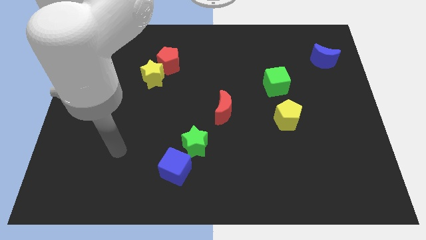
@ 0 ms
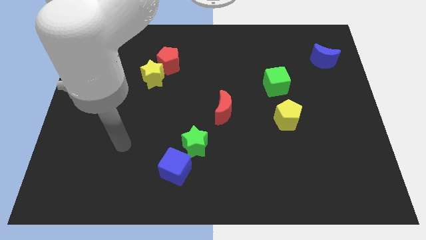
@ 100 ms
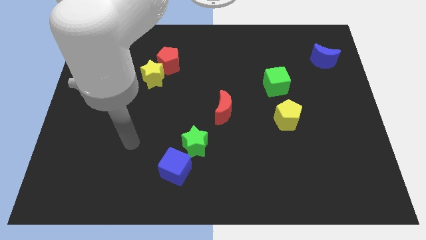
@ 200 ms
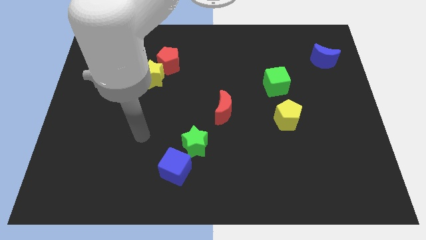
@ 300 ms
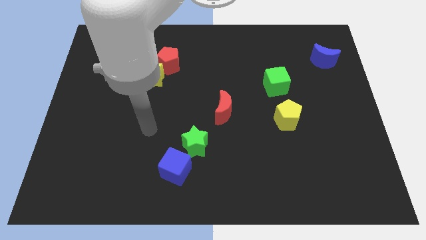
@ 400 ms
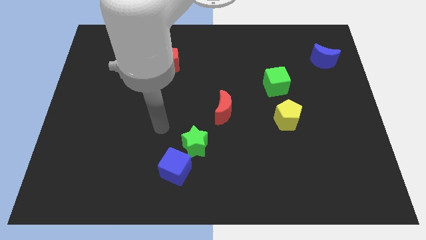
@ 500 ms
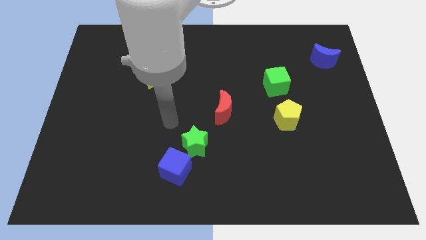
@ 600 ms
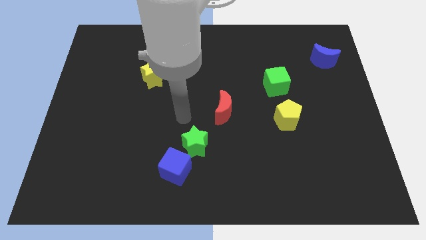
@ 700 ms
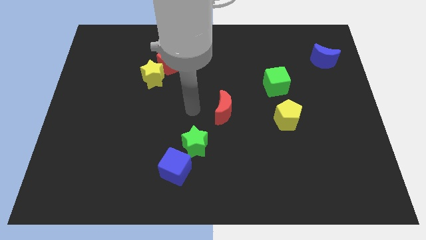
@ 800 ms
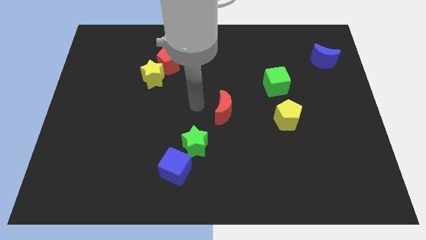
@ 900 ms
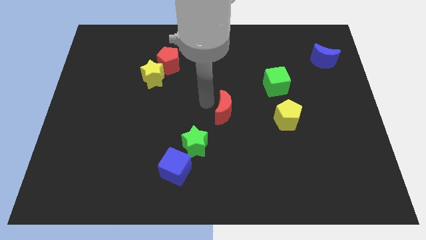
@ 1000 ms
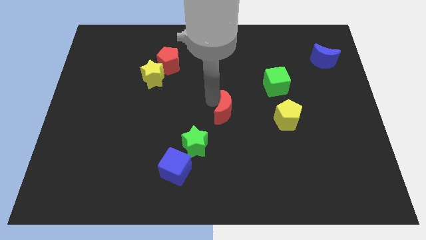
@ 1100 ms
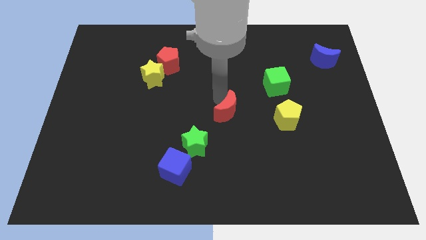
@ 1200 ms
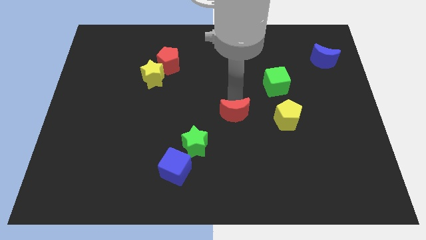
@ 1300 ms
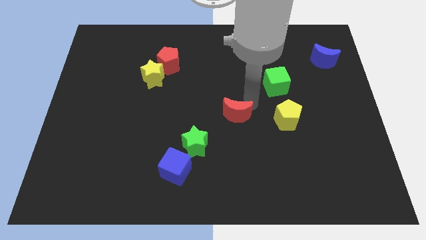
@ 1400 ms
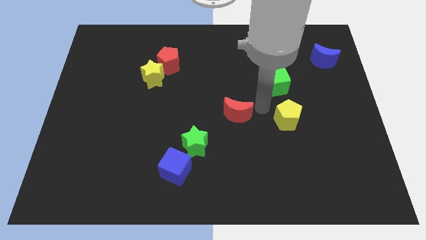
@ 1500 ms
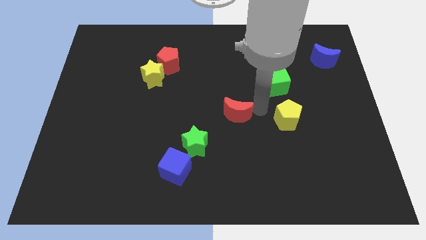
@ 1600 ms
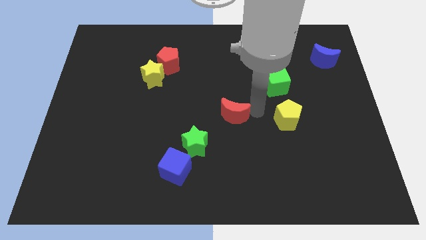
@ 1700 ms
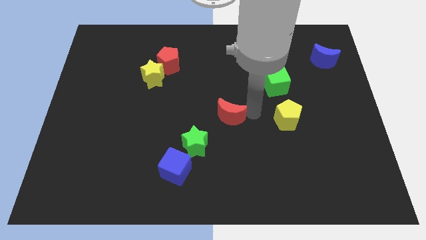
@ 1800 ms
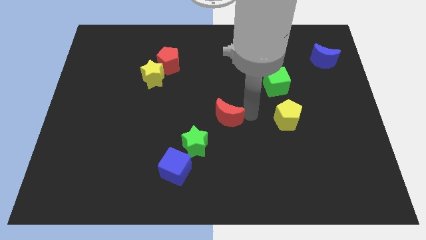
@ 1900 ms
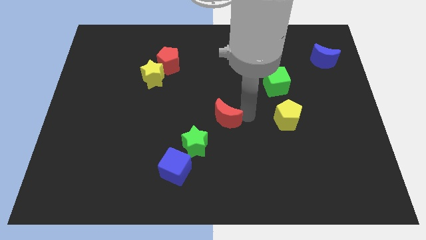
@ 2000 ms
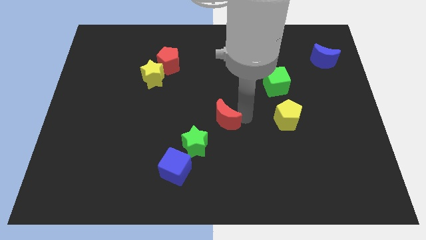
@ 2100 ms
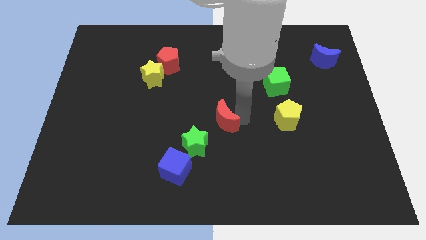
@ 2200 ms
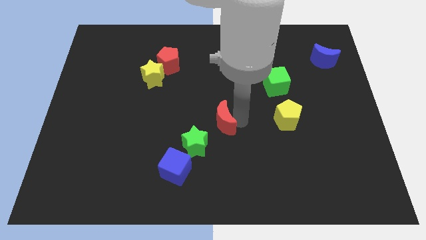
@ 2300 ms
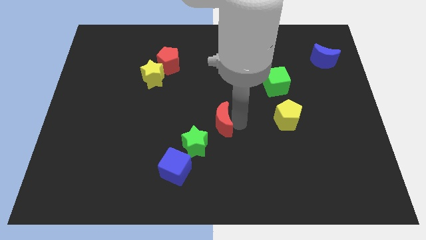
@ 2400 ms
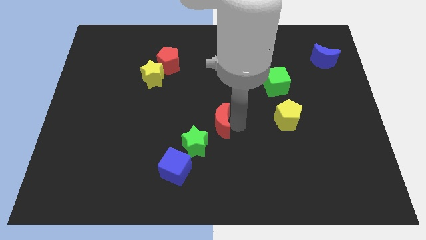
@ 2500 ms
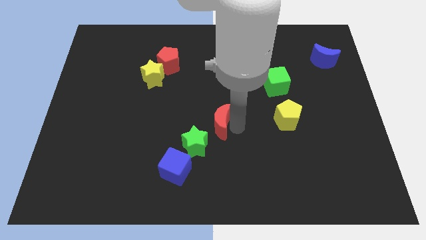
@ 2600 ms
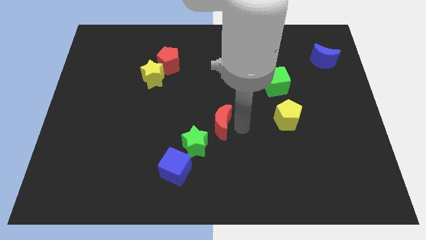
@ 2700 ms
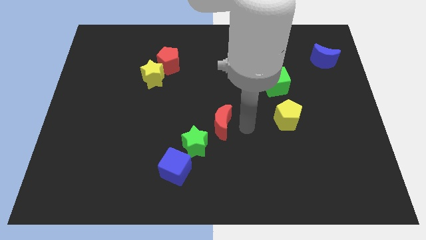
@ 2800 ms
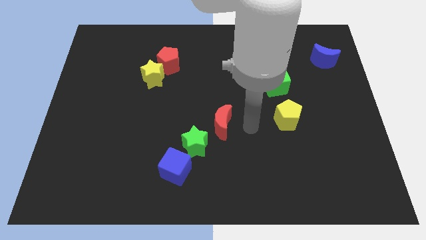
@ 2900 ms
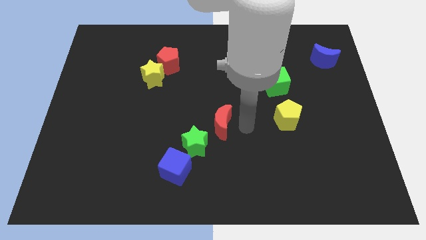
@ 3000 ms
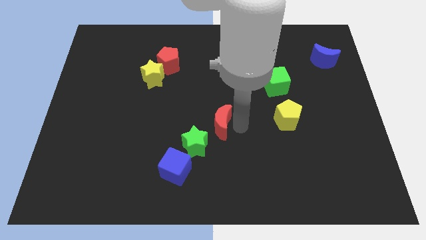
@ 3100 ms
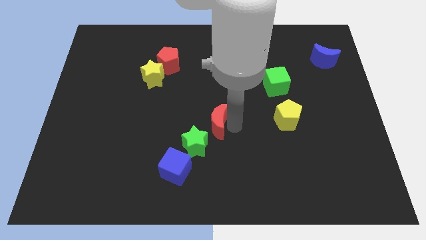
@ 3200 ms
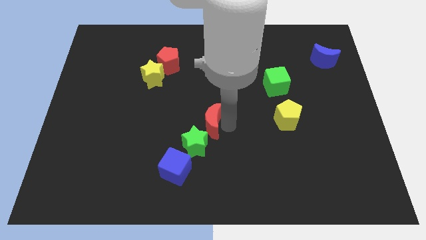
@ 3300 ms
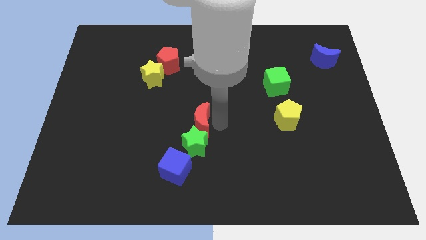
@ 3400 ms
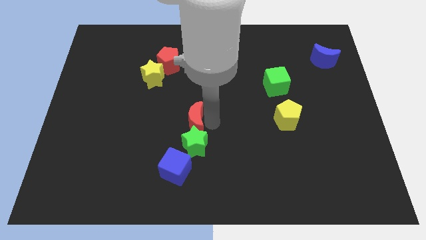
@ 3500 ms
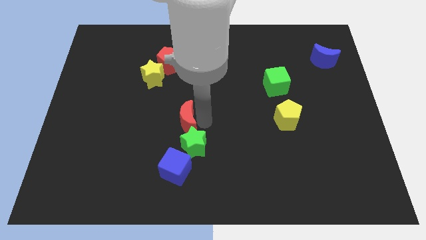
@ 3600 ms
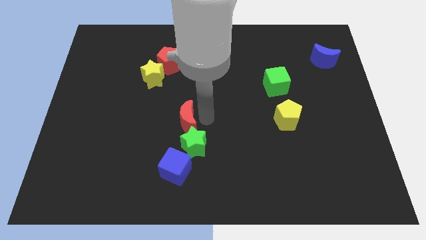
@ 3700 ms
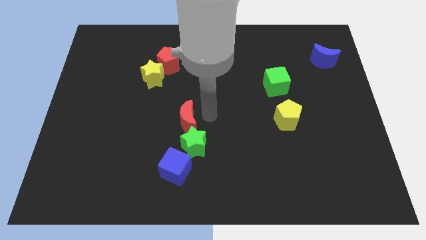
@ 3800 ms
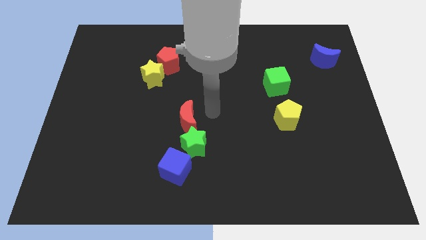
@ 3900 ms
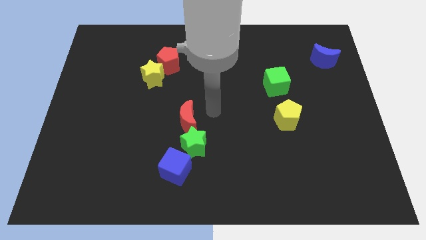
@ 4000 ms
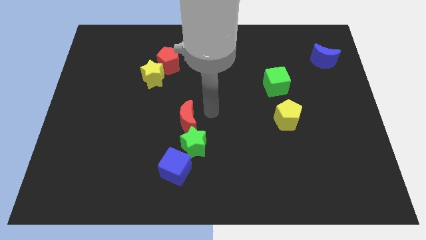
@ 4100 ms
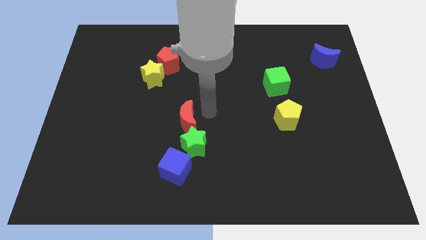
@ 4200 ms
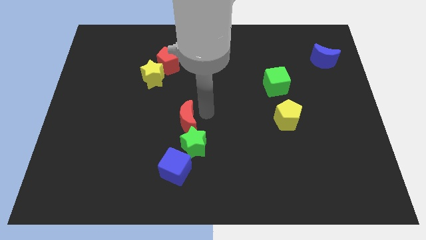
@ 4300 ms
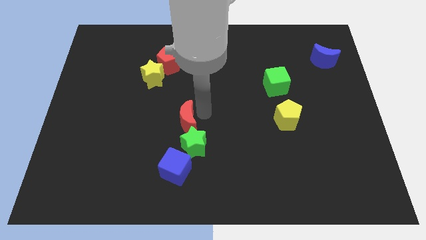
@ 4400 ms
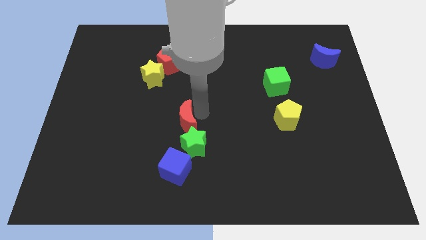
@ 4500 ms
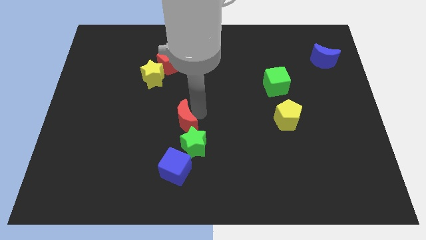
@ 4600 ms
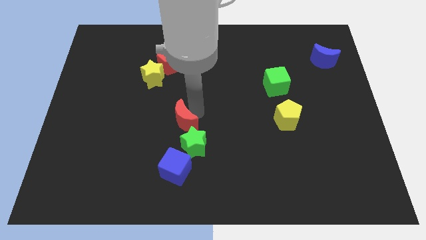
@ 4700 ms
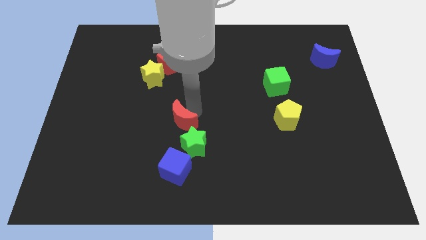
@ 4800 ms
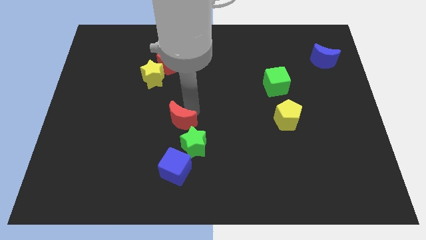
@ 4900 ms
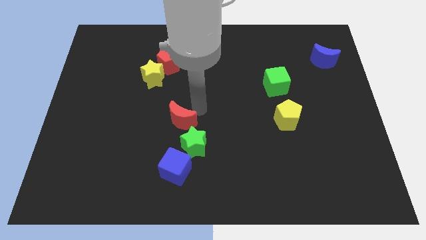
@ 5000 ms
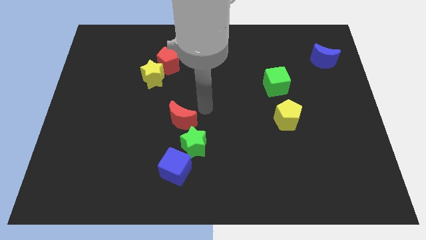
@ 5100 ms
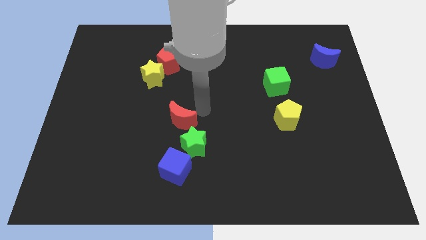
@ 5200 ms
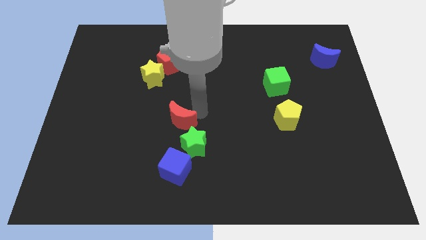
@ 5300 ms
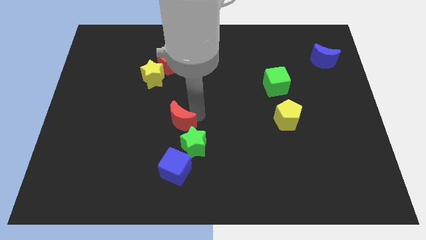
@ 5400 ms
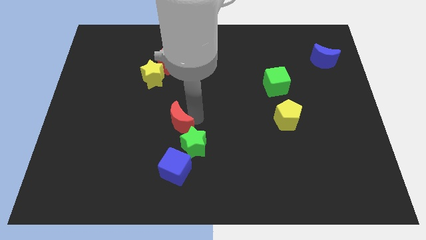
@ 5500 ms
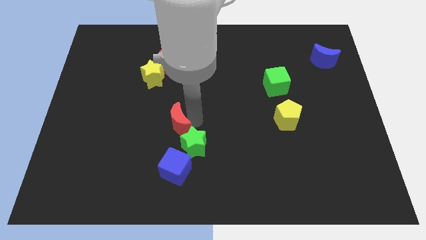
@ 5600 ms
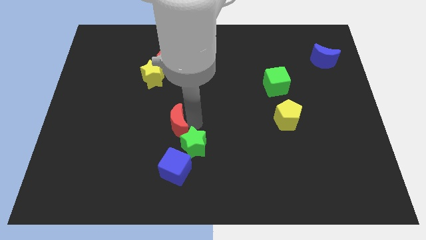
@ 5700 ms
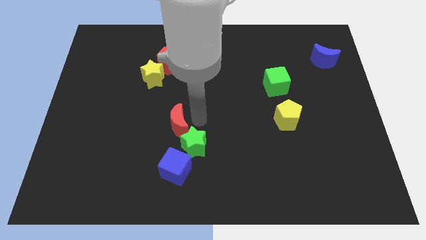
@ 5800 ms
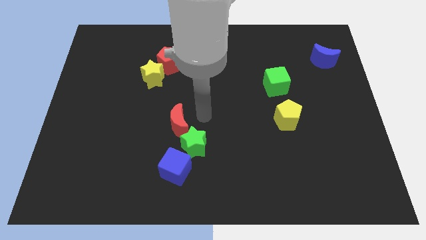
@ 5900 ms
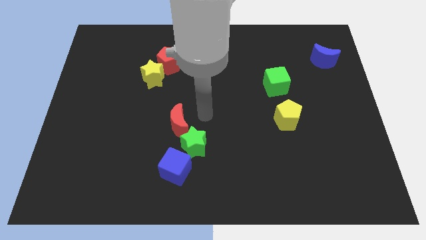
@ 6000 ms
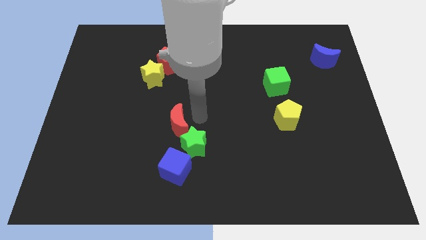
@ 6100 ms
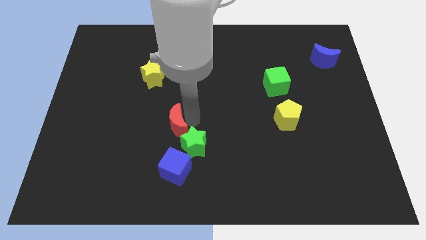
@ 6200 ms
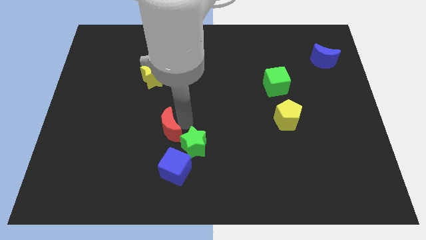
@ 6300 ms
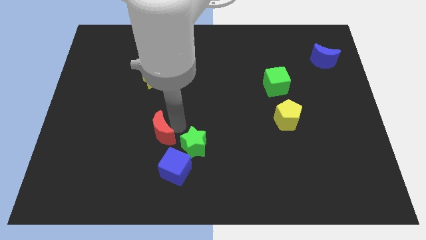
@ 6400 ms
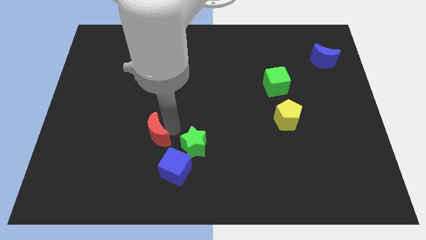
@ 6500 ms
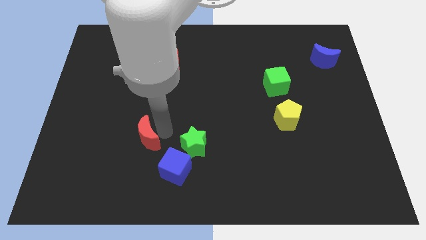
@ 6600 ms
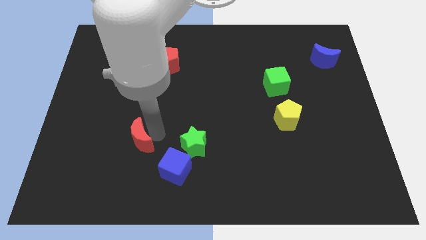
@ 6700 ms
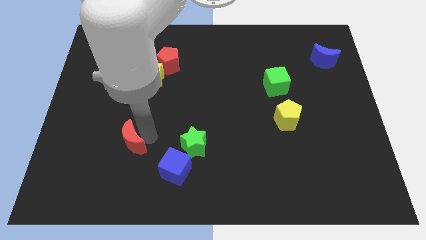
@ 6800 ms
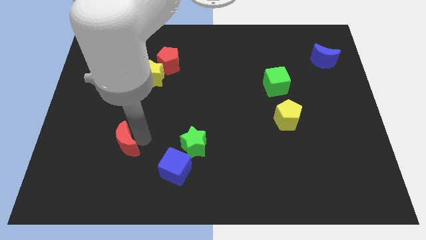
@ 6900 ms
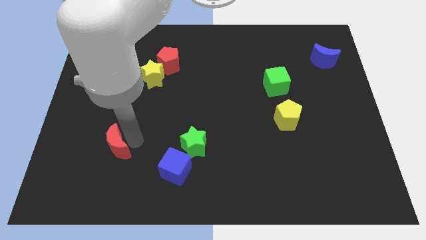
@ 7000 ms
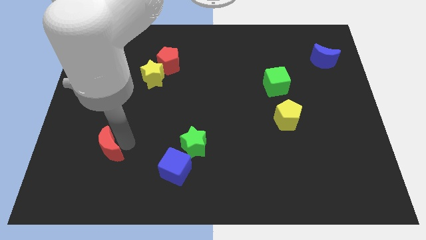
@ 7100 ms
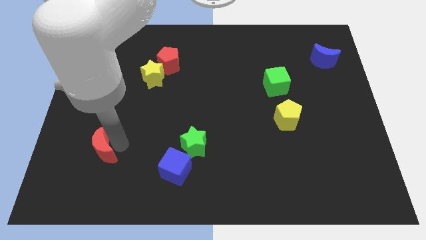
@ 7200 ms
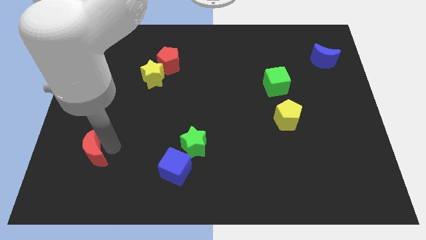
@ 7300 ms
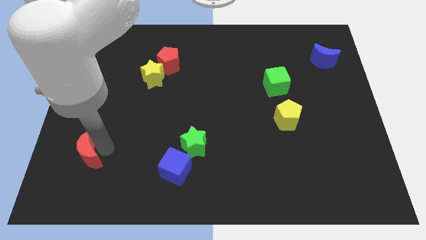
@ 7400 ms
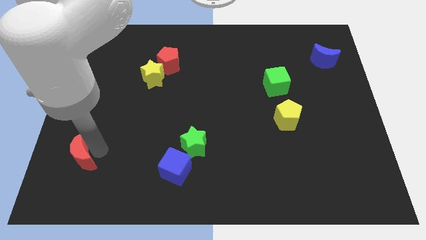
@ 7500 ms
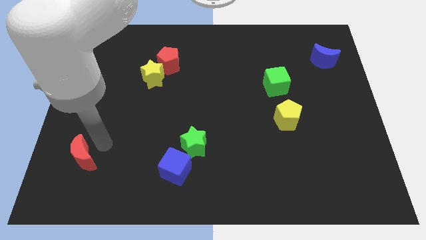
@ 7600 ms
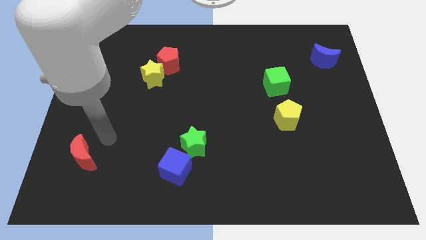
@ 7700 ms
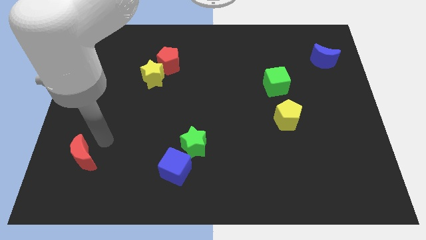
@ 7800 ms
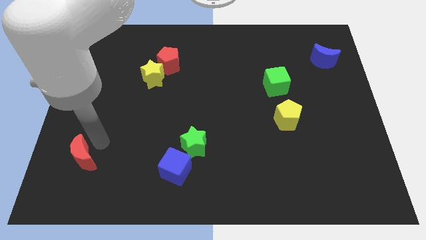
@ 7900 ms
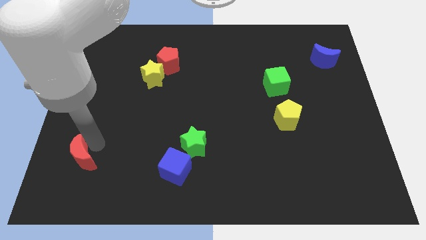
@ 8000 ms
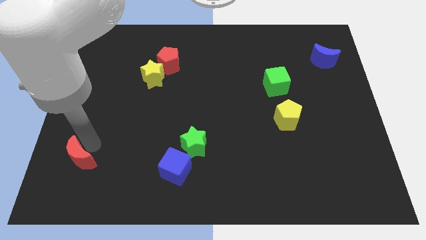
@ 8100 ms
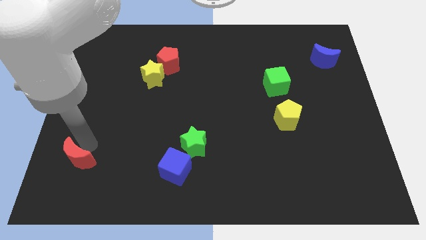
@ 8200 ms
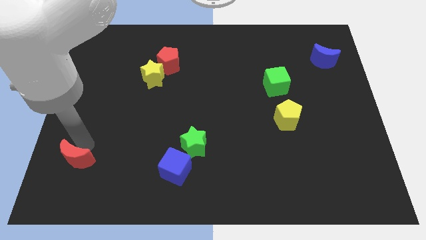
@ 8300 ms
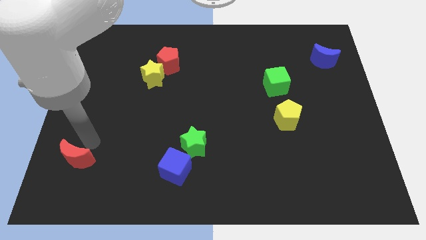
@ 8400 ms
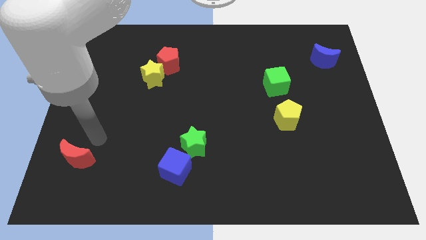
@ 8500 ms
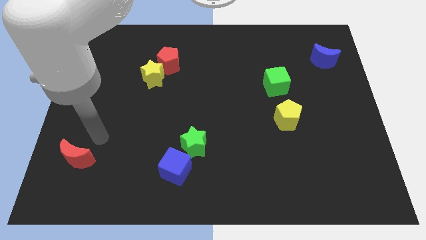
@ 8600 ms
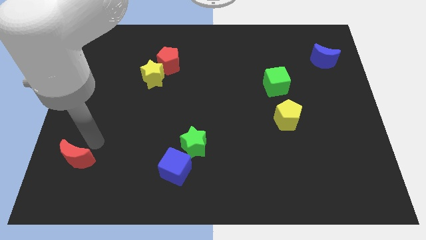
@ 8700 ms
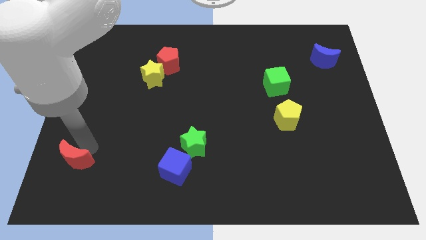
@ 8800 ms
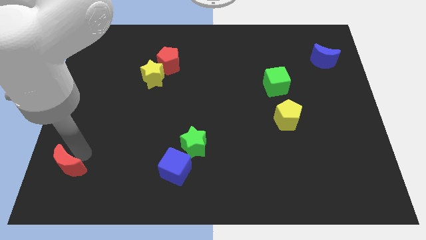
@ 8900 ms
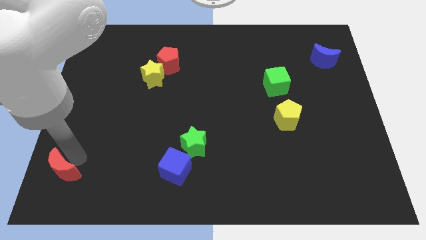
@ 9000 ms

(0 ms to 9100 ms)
push the red moon to the bottom left corner
